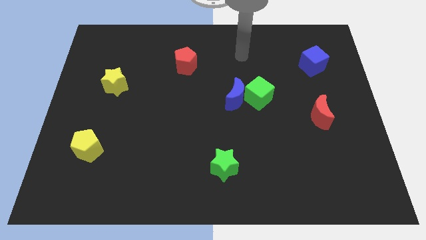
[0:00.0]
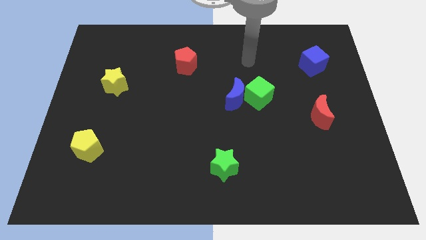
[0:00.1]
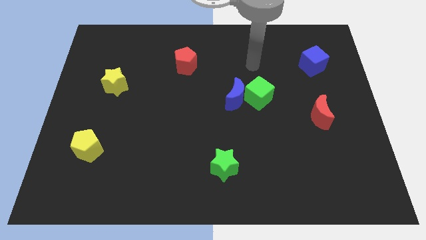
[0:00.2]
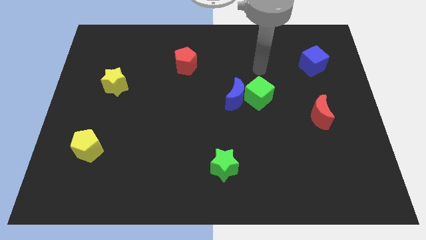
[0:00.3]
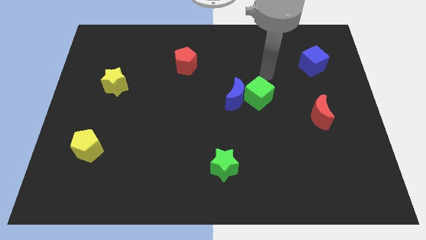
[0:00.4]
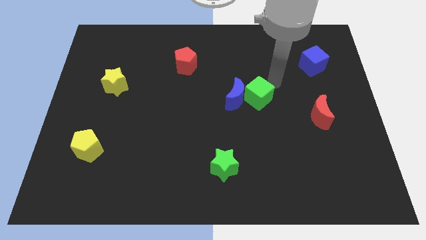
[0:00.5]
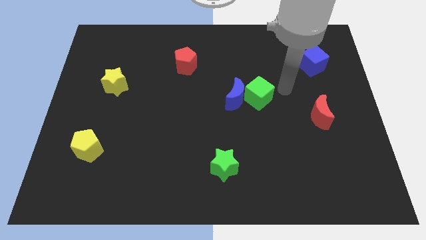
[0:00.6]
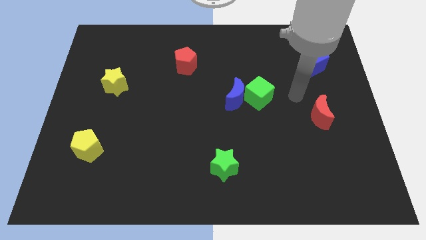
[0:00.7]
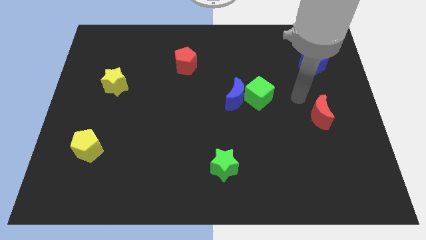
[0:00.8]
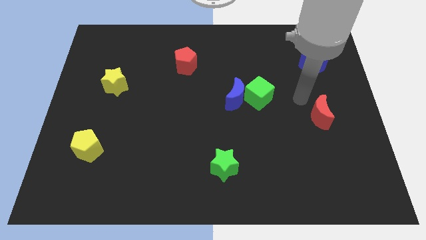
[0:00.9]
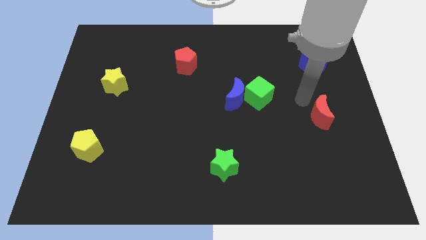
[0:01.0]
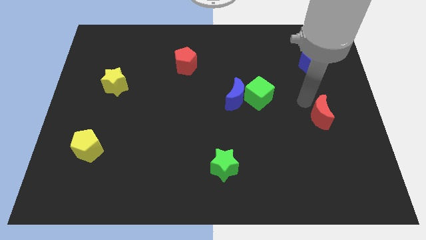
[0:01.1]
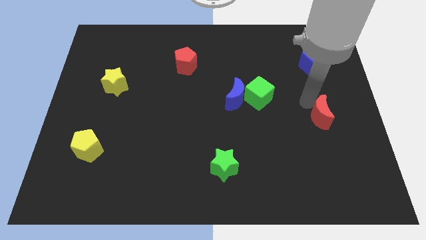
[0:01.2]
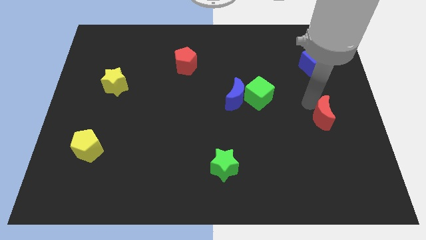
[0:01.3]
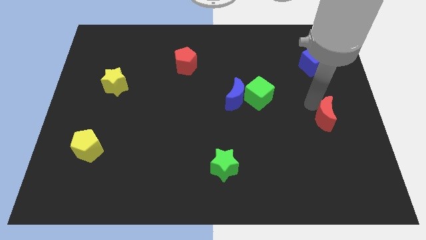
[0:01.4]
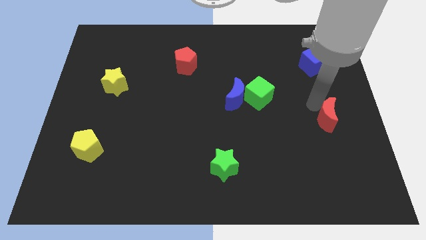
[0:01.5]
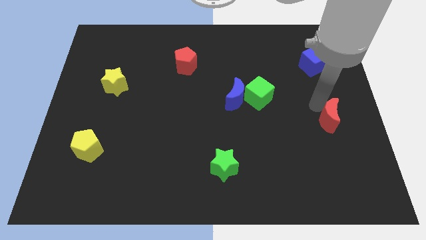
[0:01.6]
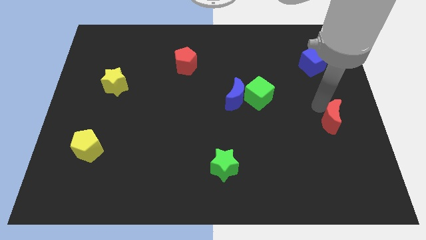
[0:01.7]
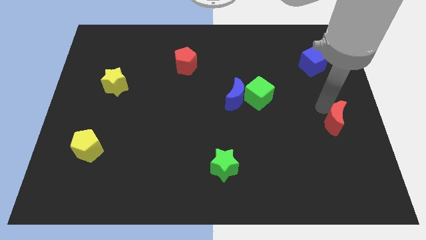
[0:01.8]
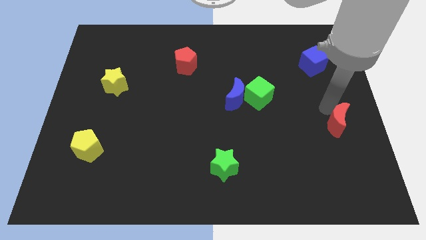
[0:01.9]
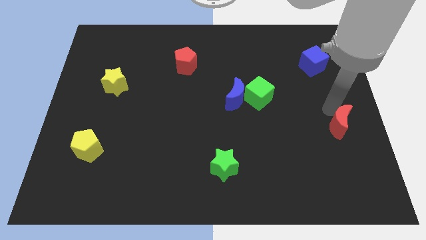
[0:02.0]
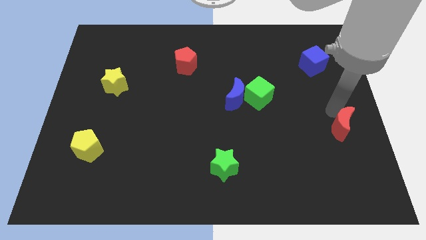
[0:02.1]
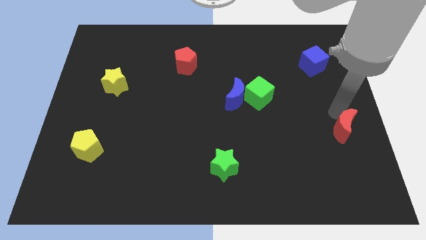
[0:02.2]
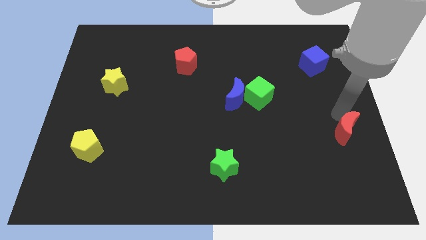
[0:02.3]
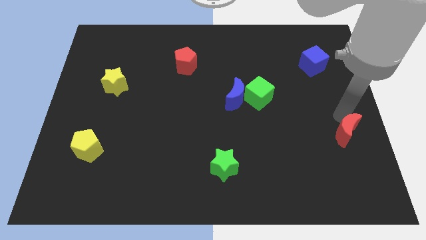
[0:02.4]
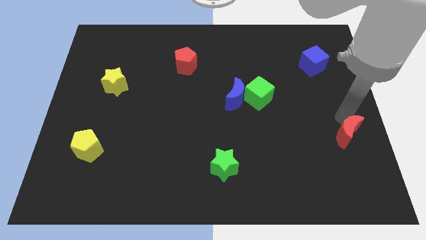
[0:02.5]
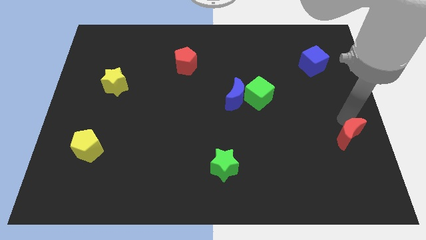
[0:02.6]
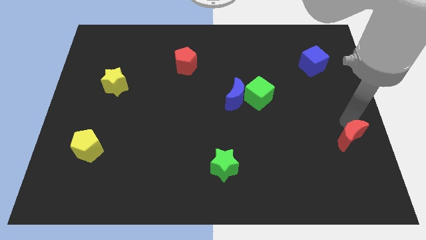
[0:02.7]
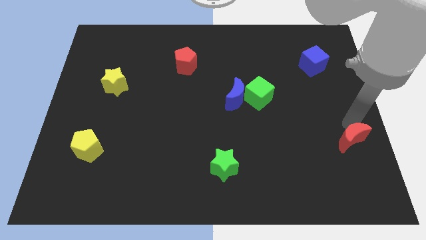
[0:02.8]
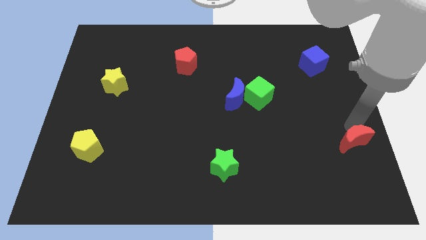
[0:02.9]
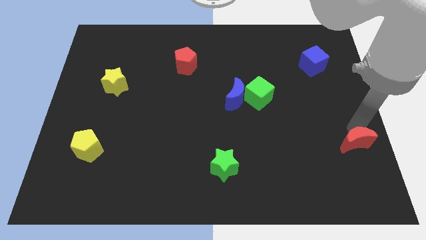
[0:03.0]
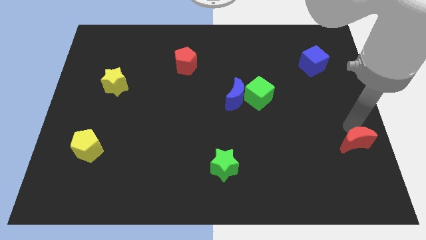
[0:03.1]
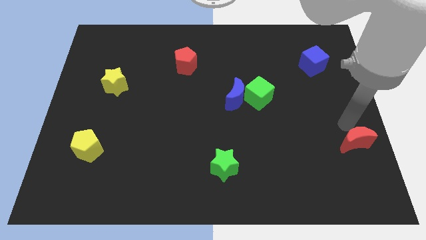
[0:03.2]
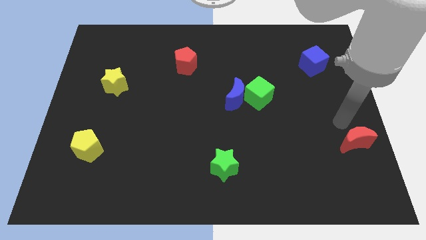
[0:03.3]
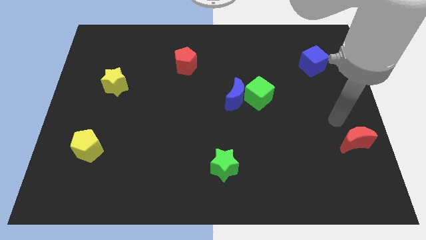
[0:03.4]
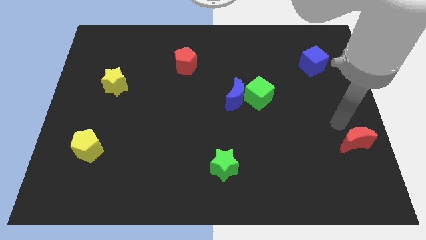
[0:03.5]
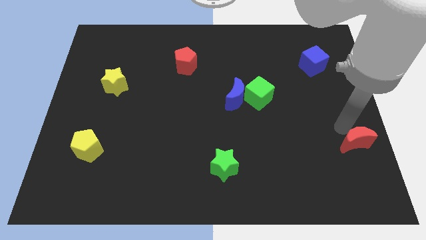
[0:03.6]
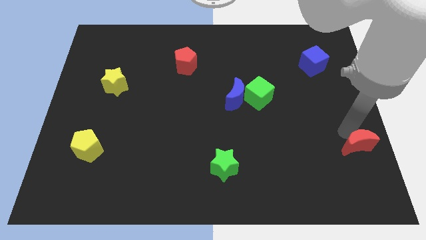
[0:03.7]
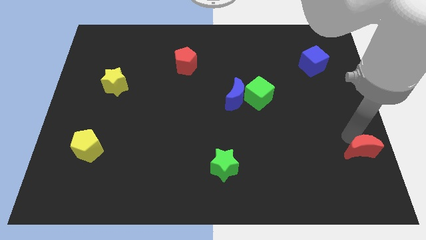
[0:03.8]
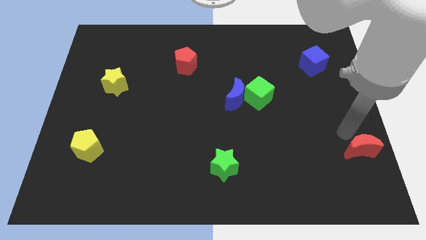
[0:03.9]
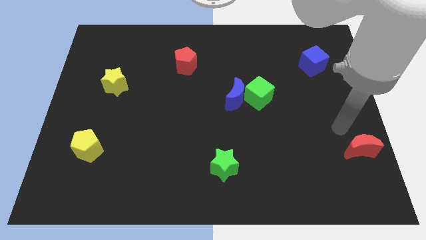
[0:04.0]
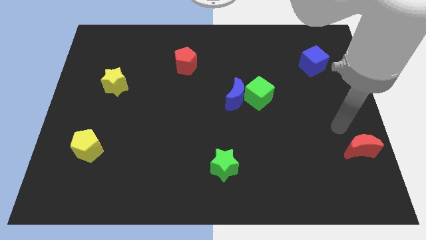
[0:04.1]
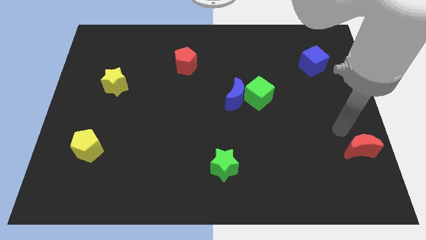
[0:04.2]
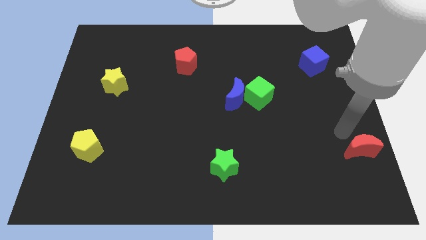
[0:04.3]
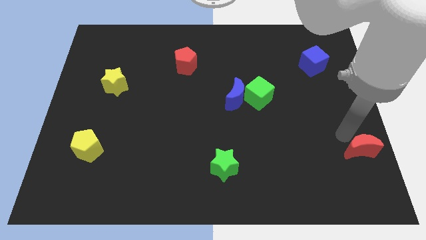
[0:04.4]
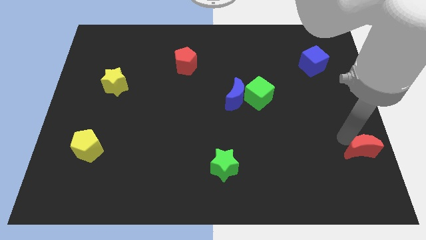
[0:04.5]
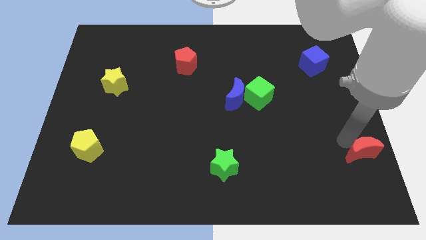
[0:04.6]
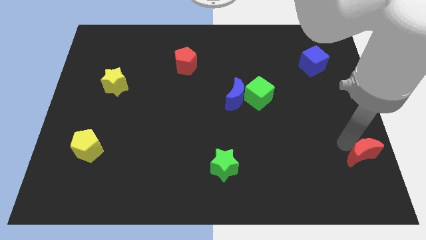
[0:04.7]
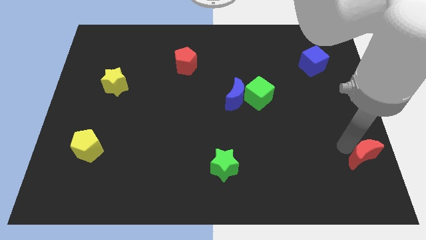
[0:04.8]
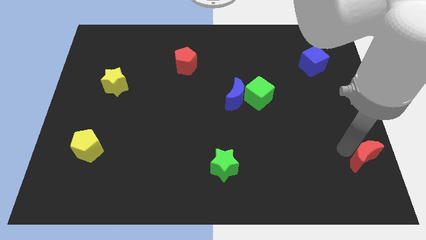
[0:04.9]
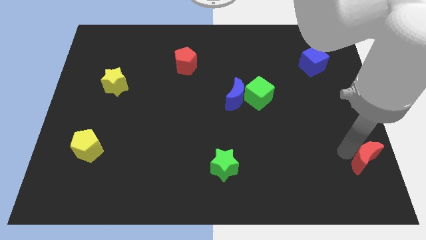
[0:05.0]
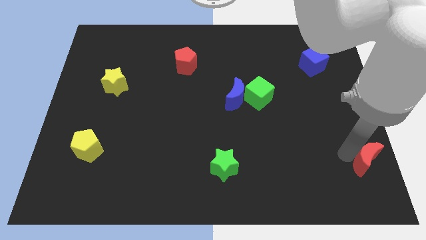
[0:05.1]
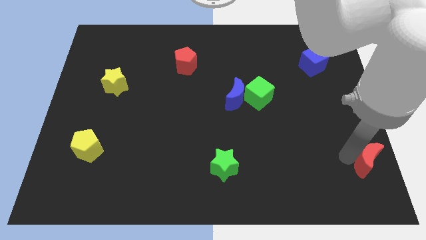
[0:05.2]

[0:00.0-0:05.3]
slide the red moon to the lower right corner

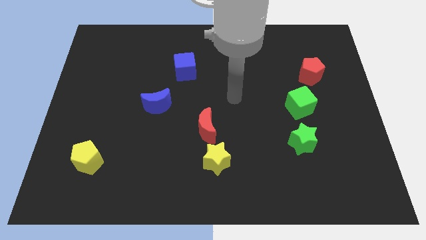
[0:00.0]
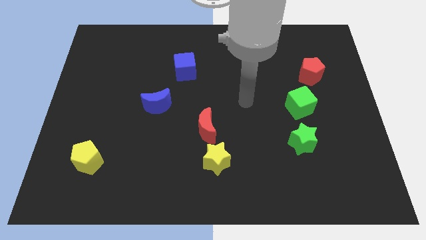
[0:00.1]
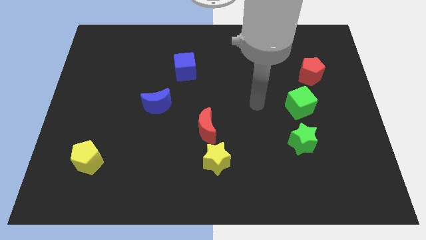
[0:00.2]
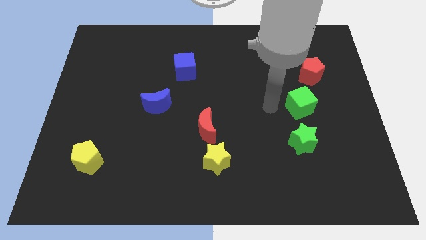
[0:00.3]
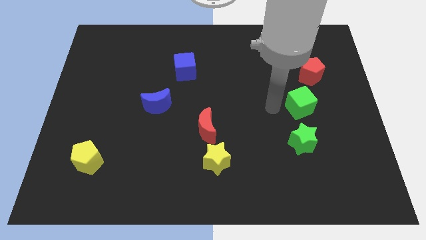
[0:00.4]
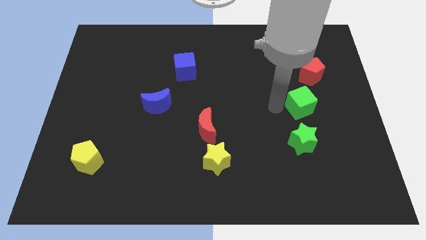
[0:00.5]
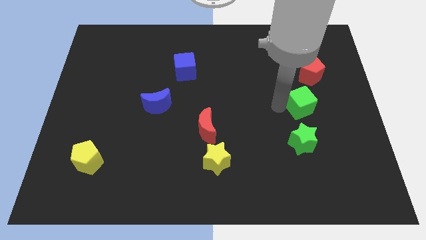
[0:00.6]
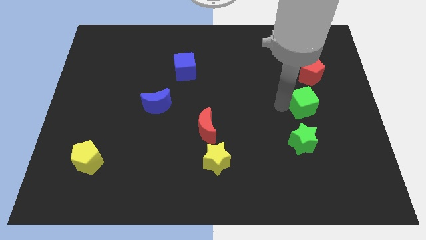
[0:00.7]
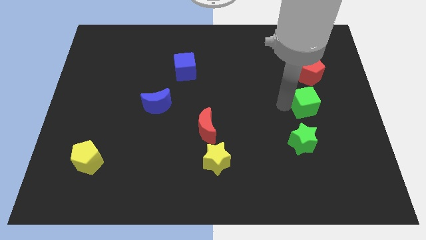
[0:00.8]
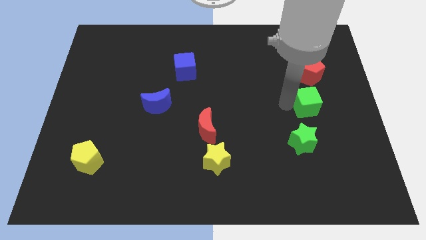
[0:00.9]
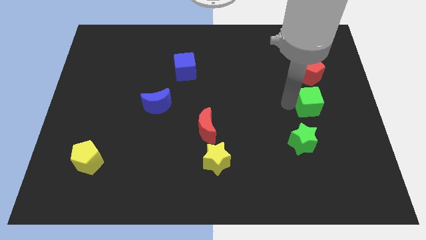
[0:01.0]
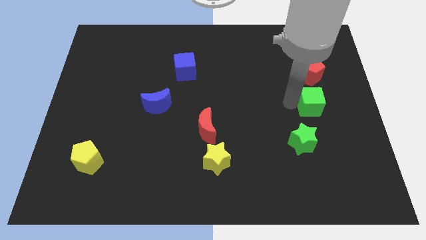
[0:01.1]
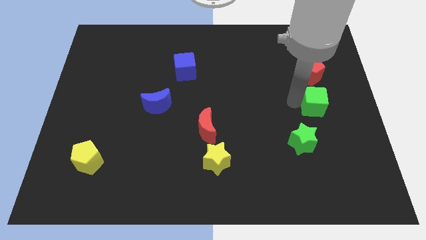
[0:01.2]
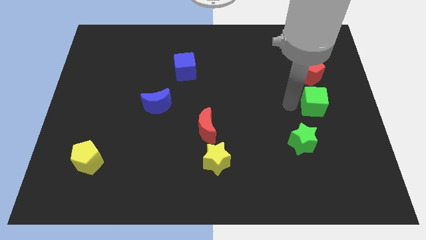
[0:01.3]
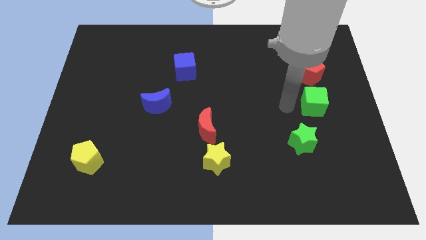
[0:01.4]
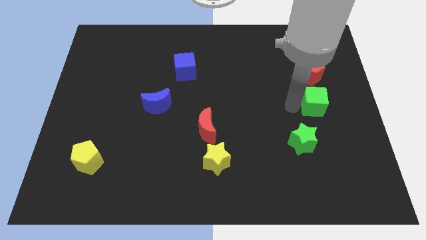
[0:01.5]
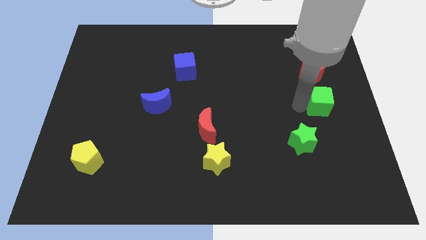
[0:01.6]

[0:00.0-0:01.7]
put the green cube to the right side of the board
